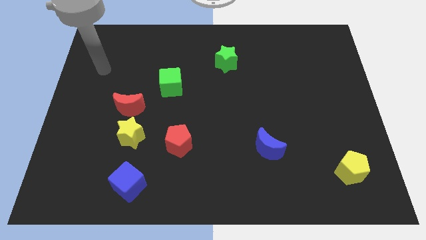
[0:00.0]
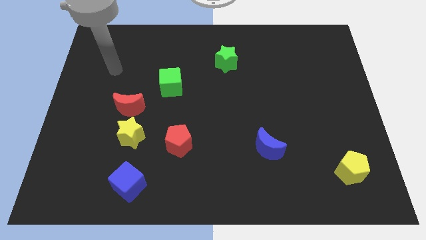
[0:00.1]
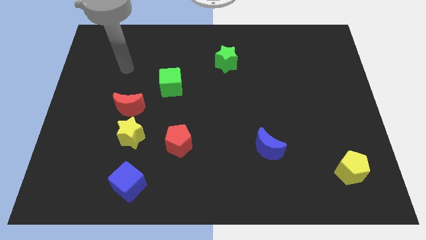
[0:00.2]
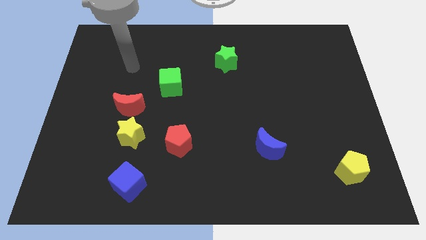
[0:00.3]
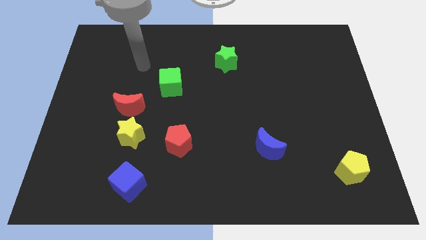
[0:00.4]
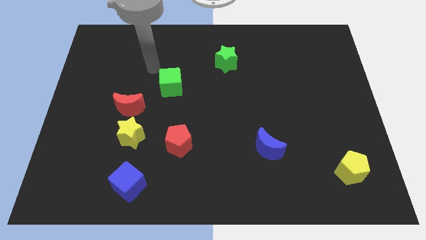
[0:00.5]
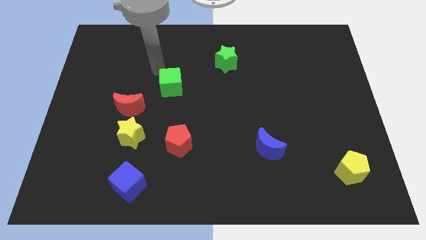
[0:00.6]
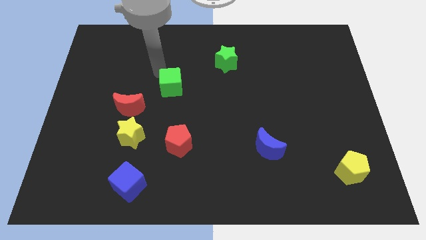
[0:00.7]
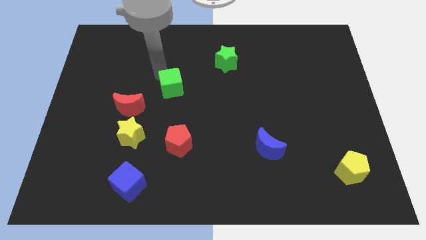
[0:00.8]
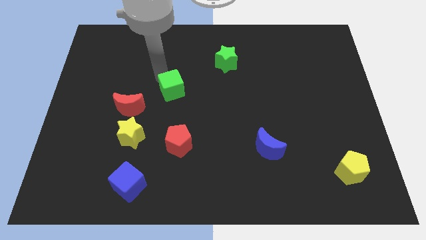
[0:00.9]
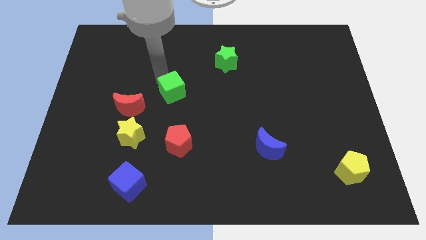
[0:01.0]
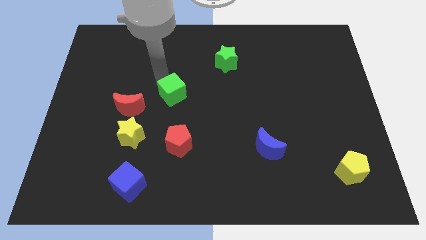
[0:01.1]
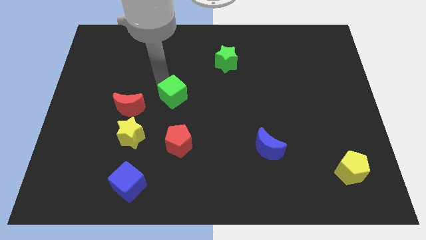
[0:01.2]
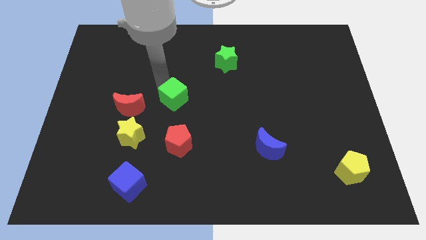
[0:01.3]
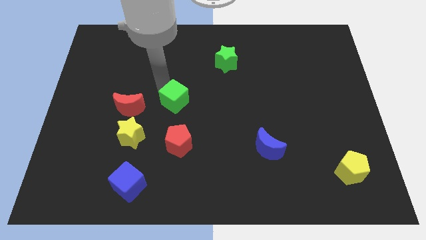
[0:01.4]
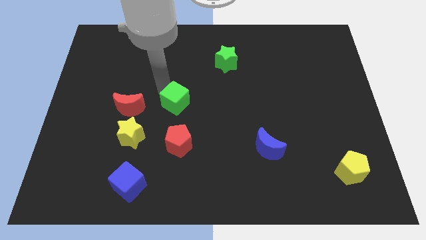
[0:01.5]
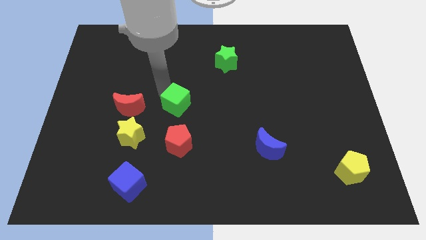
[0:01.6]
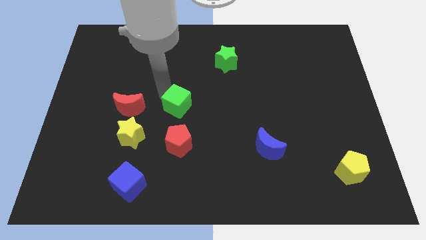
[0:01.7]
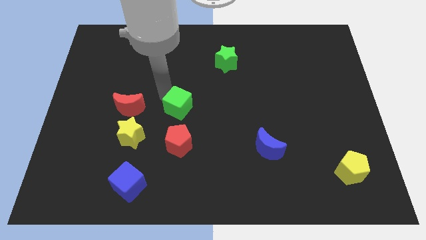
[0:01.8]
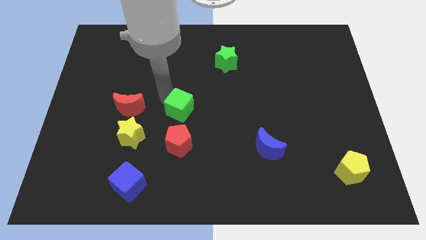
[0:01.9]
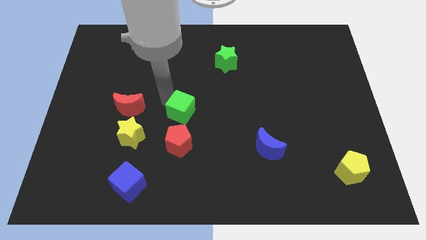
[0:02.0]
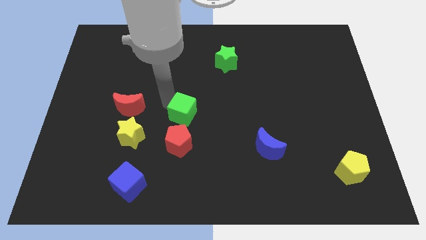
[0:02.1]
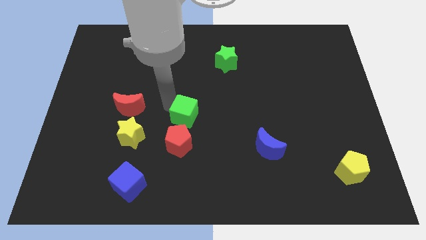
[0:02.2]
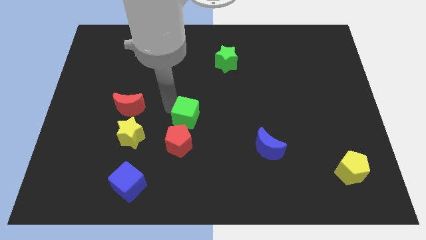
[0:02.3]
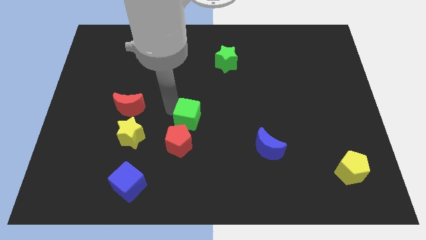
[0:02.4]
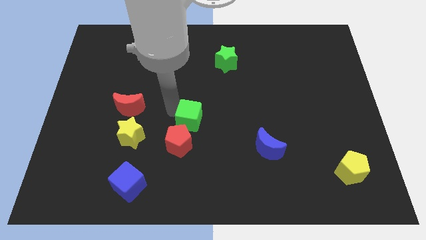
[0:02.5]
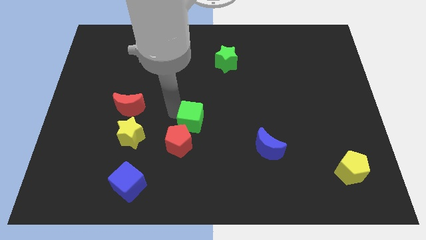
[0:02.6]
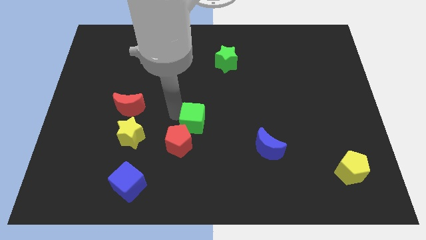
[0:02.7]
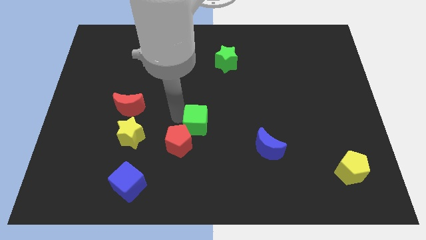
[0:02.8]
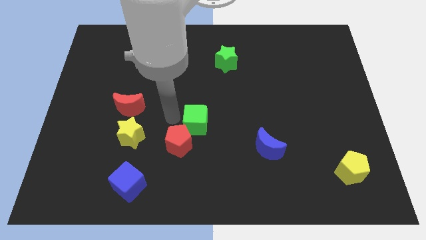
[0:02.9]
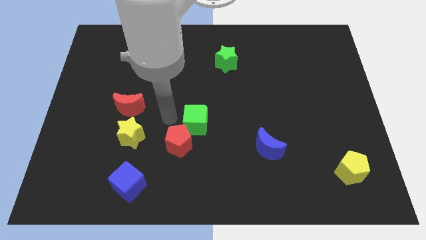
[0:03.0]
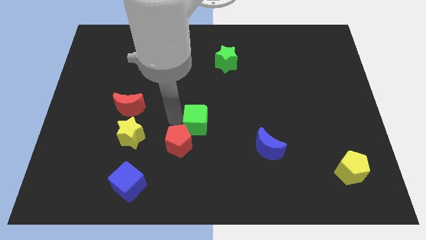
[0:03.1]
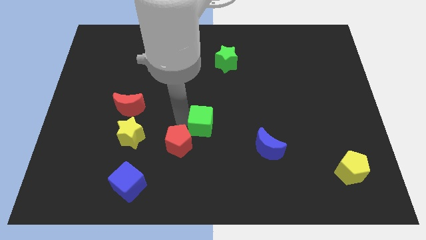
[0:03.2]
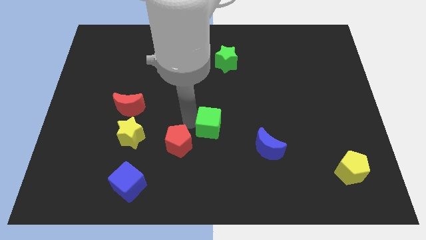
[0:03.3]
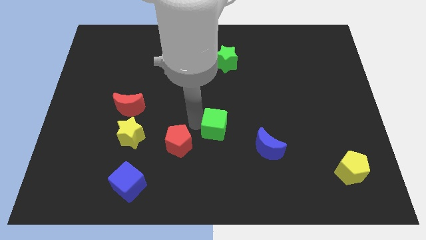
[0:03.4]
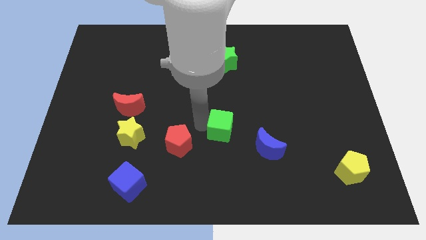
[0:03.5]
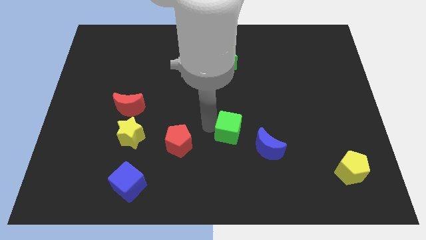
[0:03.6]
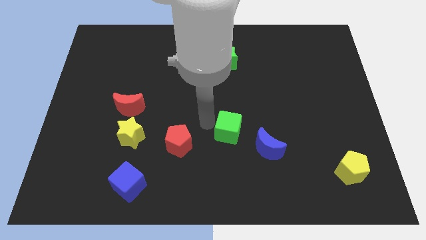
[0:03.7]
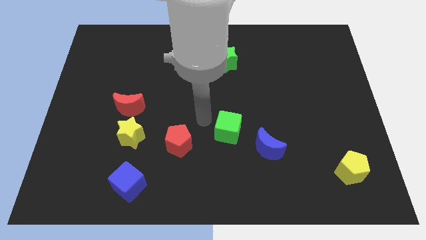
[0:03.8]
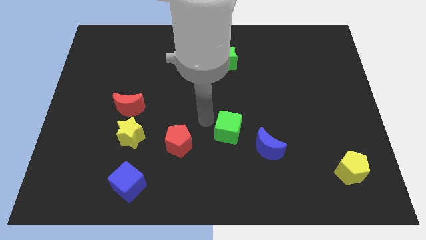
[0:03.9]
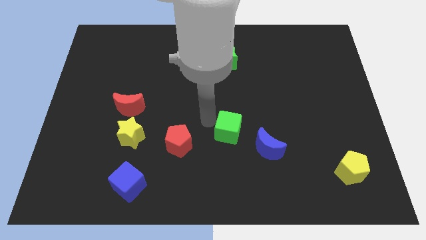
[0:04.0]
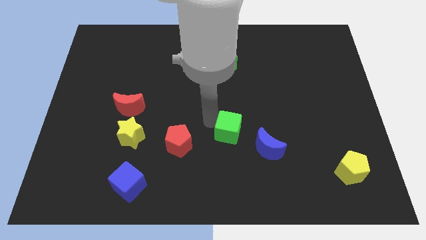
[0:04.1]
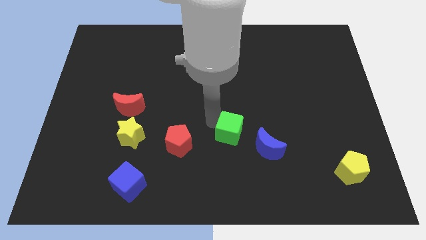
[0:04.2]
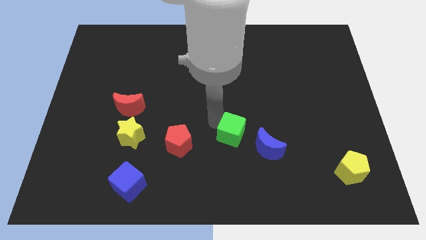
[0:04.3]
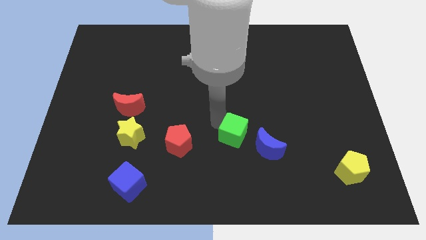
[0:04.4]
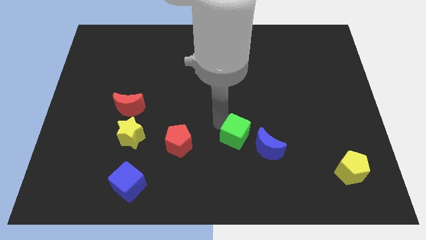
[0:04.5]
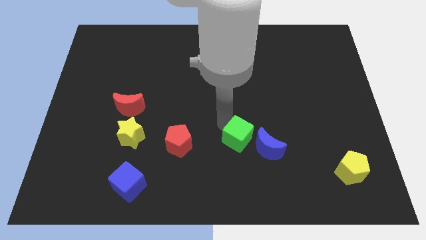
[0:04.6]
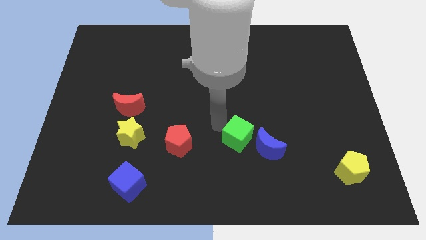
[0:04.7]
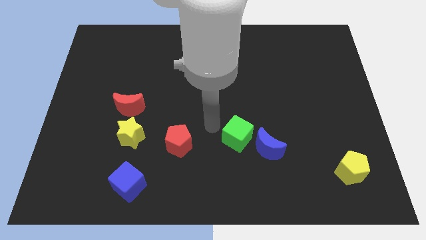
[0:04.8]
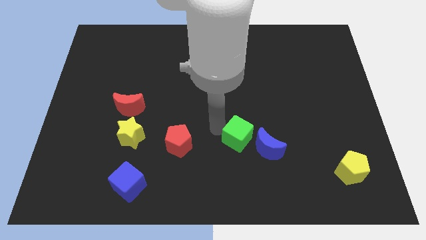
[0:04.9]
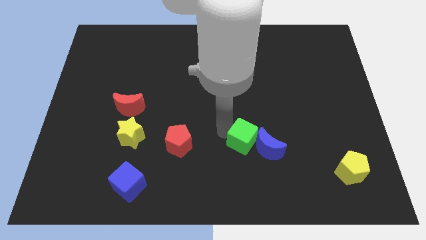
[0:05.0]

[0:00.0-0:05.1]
move the green cube to the blue moon

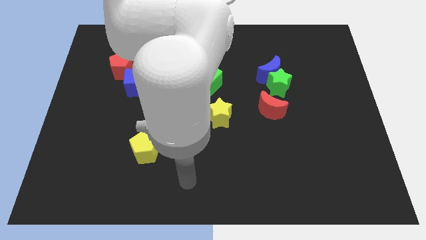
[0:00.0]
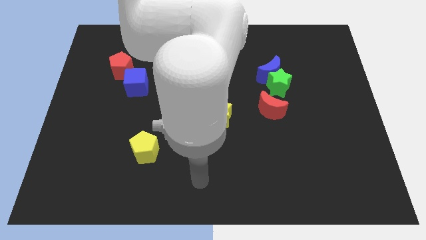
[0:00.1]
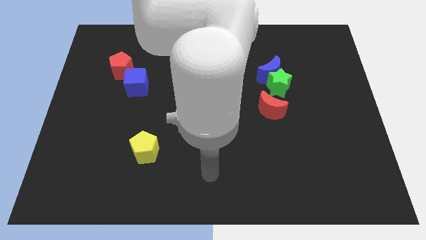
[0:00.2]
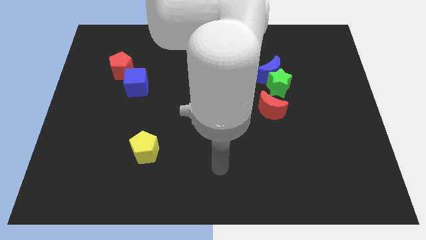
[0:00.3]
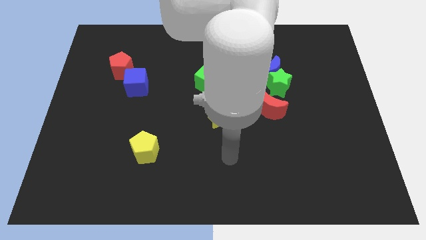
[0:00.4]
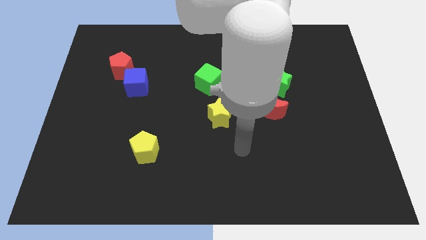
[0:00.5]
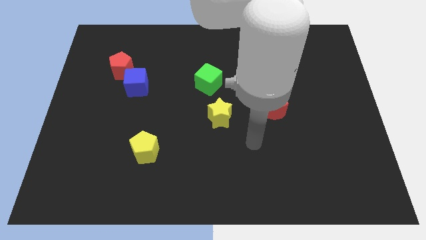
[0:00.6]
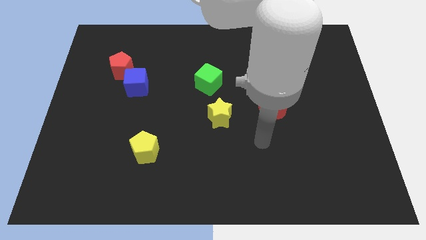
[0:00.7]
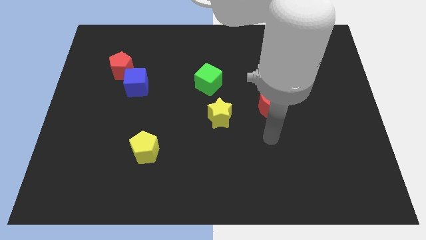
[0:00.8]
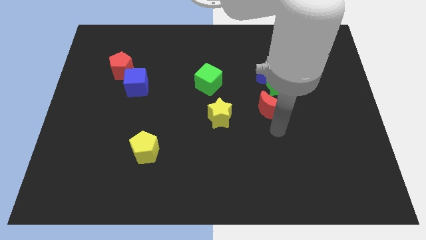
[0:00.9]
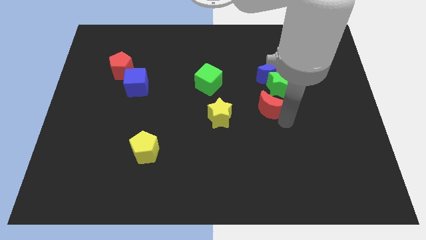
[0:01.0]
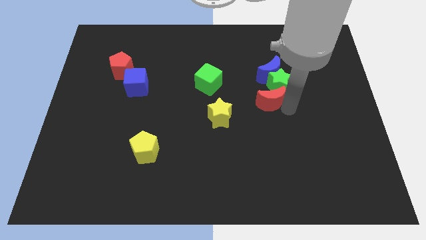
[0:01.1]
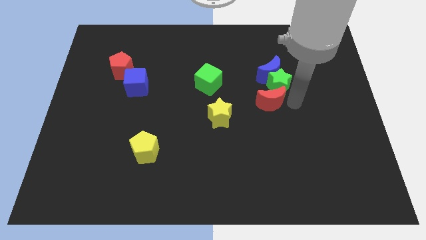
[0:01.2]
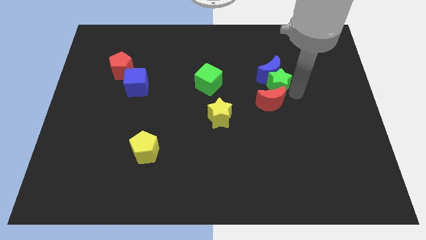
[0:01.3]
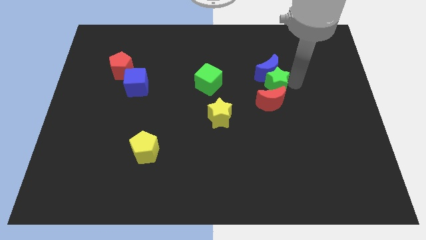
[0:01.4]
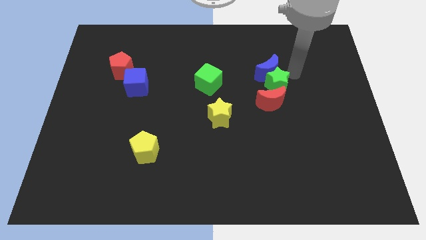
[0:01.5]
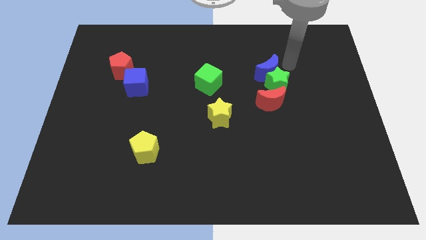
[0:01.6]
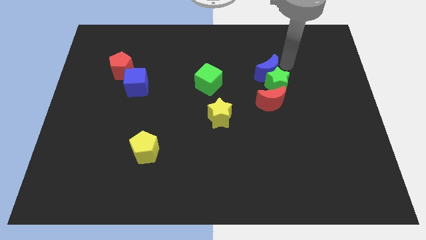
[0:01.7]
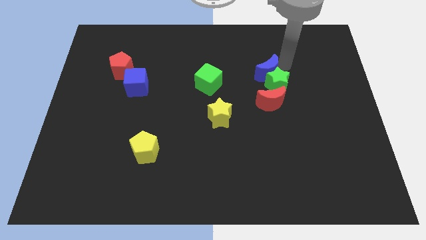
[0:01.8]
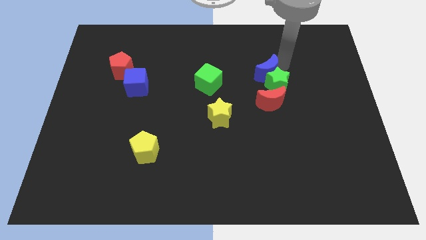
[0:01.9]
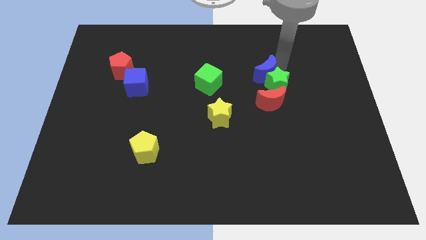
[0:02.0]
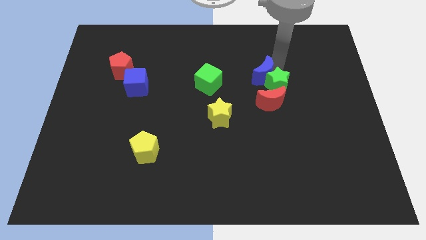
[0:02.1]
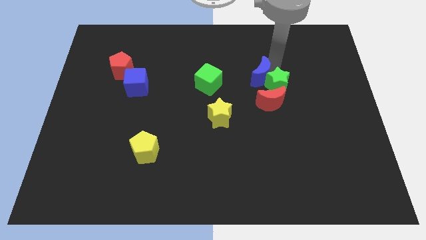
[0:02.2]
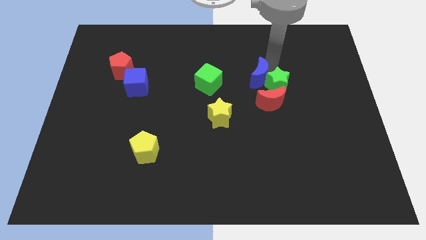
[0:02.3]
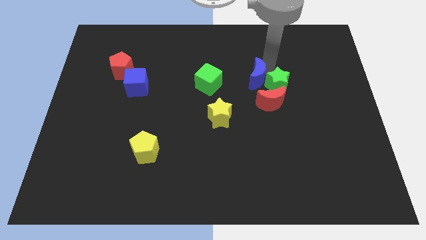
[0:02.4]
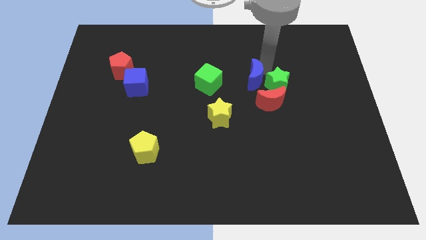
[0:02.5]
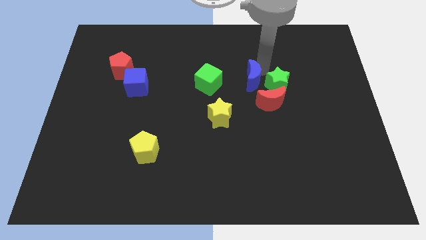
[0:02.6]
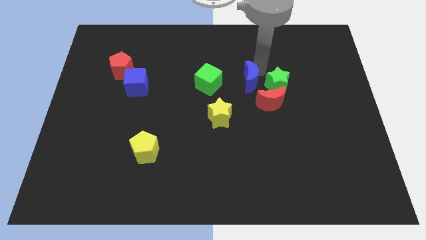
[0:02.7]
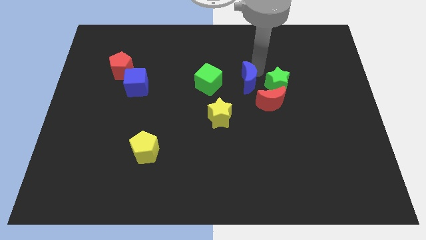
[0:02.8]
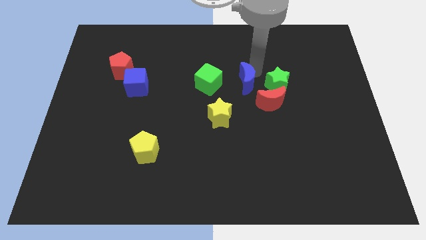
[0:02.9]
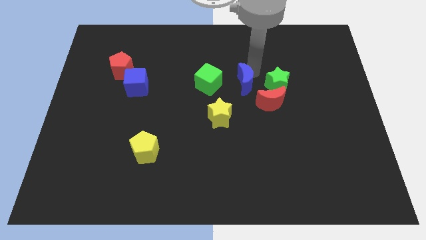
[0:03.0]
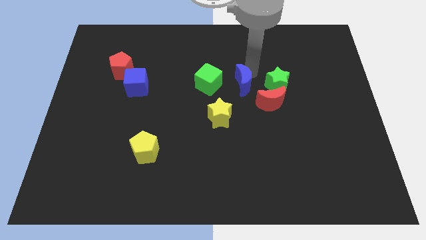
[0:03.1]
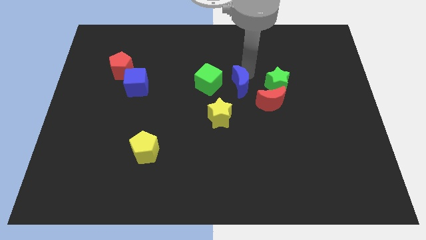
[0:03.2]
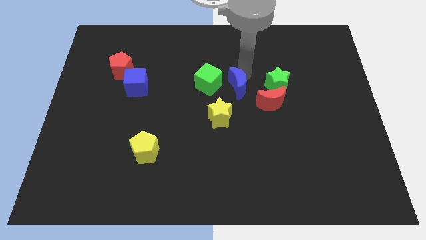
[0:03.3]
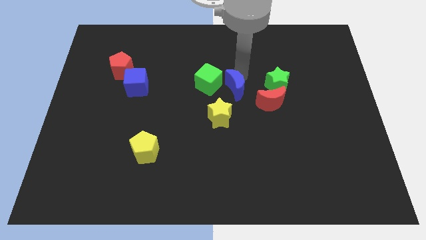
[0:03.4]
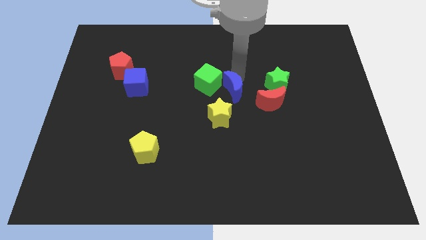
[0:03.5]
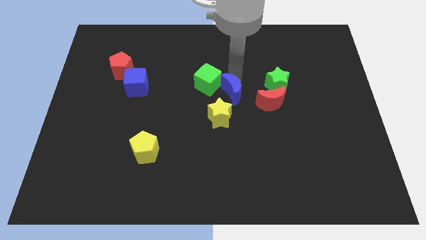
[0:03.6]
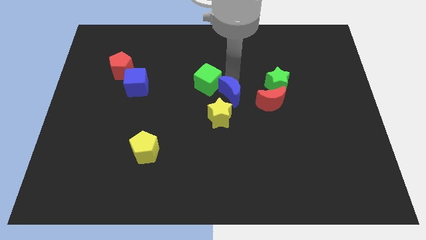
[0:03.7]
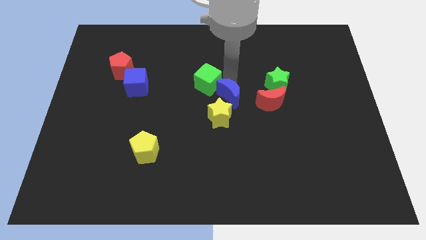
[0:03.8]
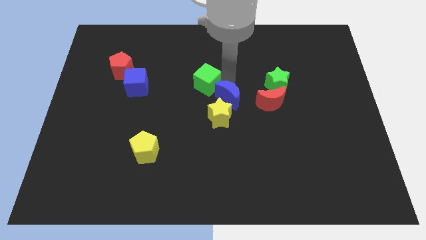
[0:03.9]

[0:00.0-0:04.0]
slide the blue moon close to the yellow star
